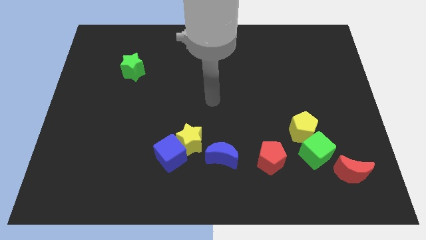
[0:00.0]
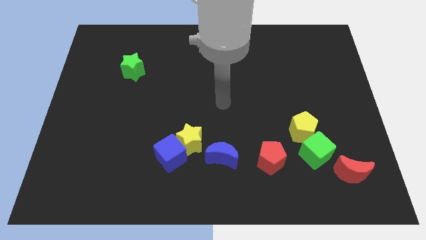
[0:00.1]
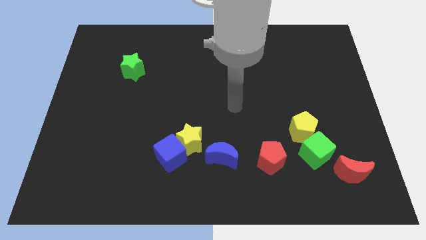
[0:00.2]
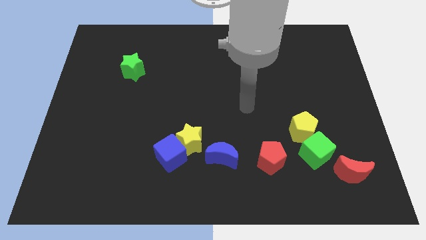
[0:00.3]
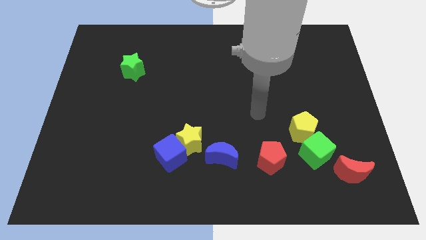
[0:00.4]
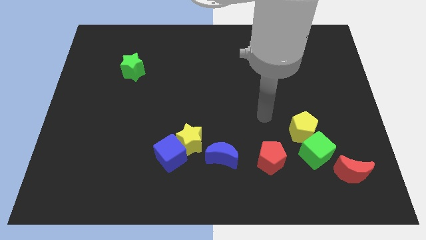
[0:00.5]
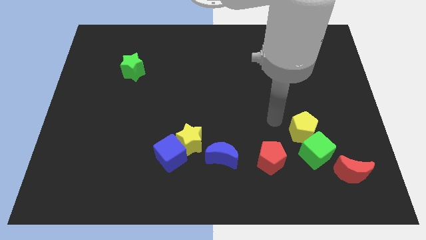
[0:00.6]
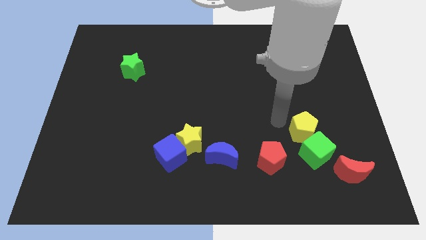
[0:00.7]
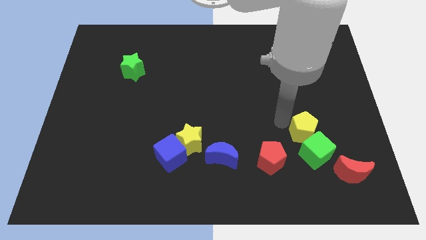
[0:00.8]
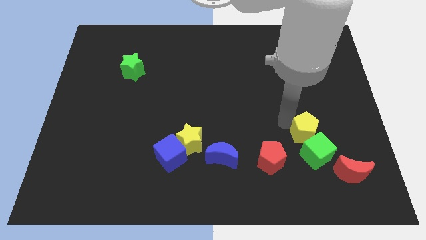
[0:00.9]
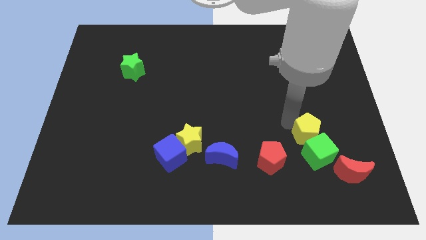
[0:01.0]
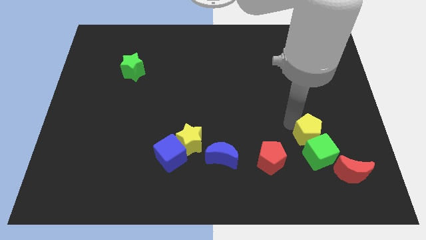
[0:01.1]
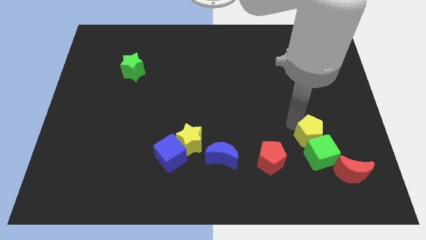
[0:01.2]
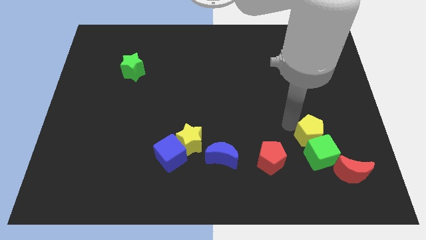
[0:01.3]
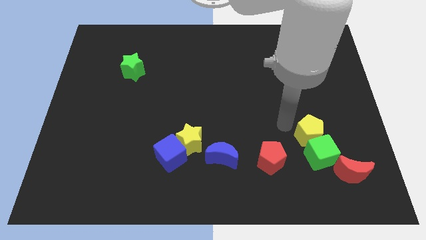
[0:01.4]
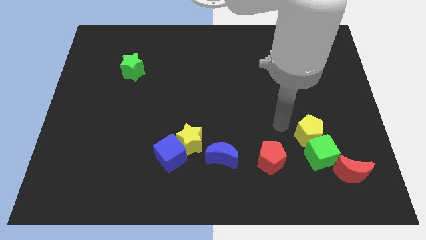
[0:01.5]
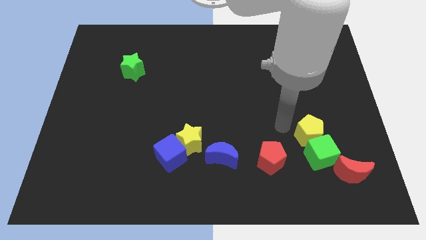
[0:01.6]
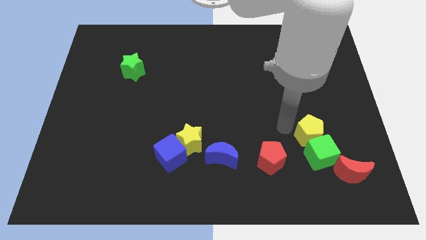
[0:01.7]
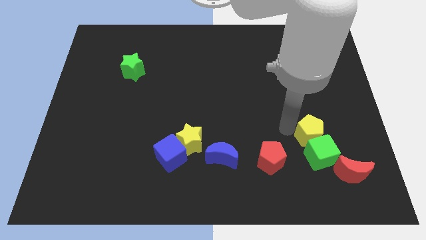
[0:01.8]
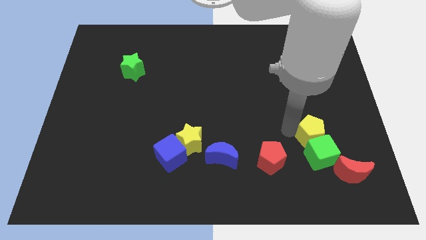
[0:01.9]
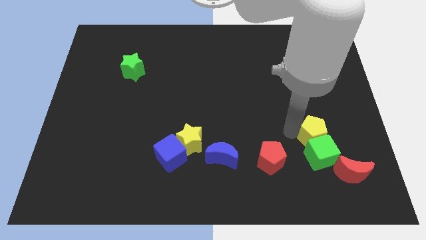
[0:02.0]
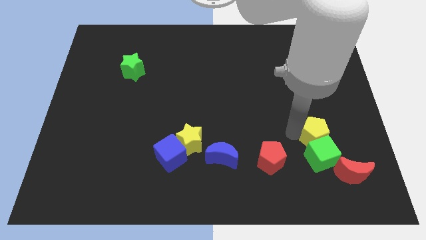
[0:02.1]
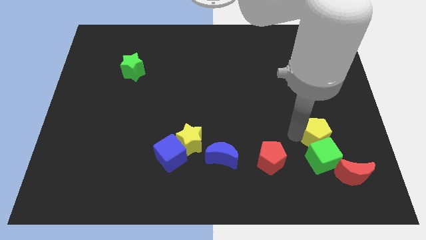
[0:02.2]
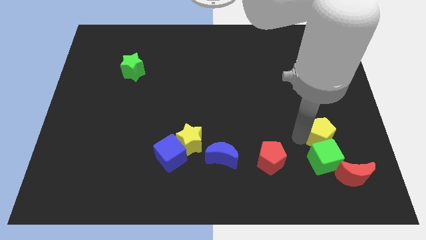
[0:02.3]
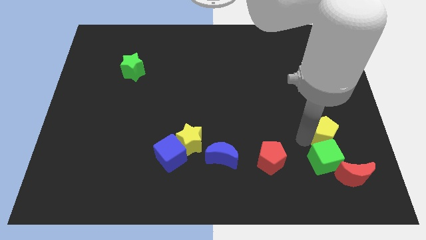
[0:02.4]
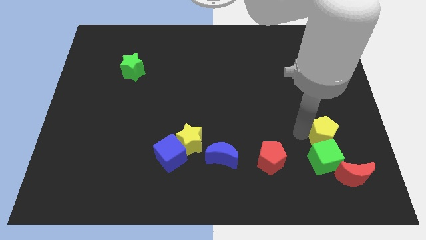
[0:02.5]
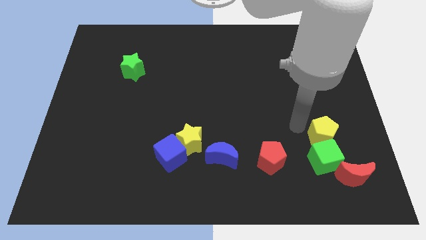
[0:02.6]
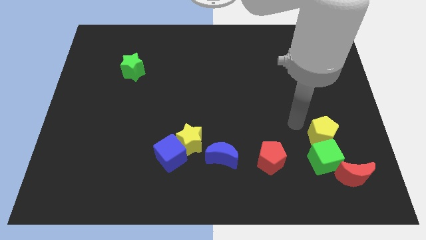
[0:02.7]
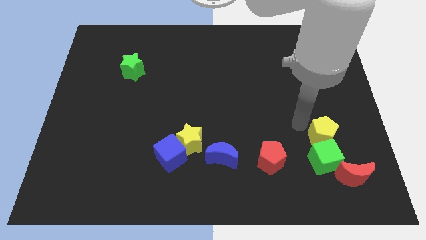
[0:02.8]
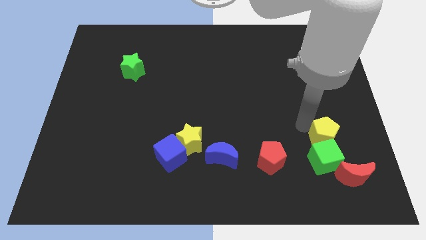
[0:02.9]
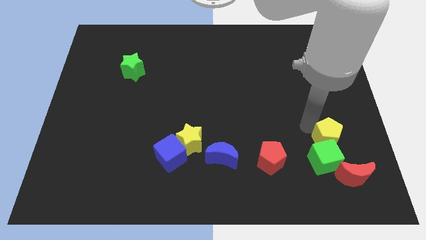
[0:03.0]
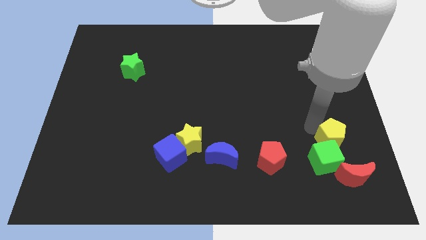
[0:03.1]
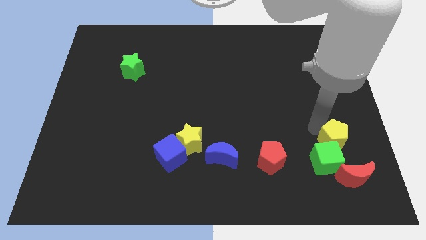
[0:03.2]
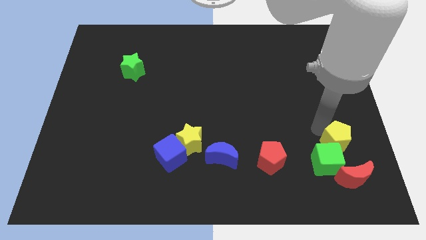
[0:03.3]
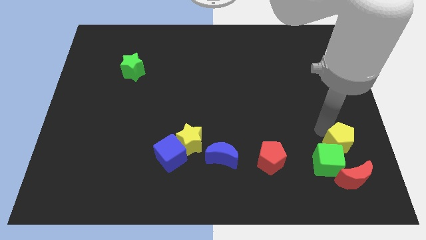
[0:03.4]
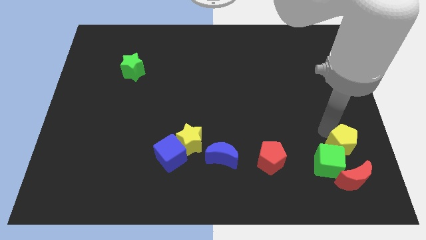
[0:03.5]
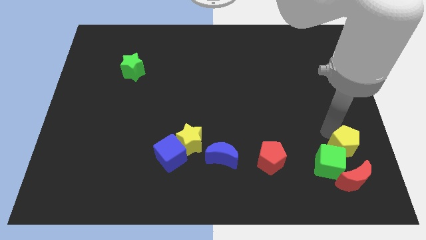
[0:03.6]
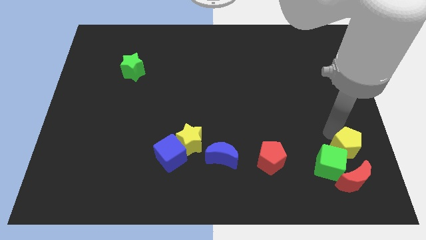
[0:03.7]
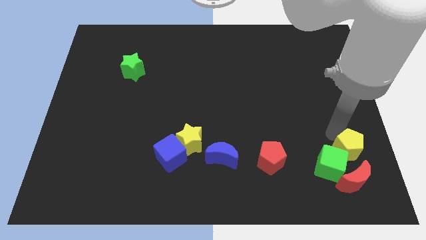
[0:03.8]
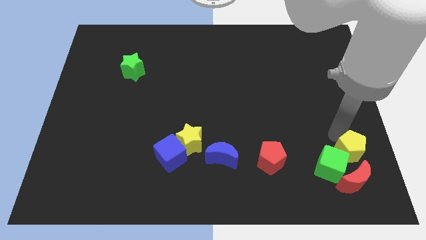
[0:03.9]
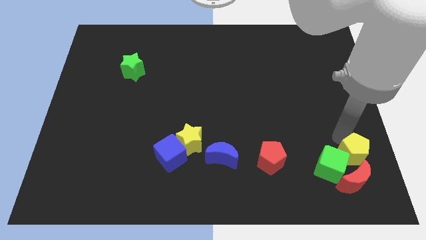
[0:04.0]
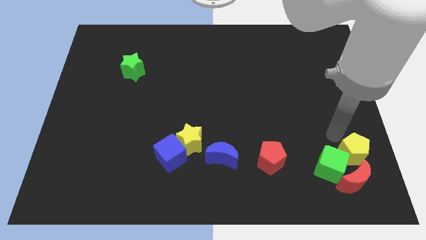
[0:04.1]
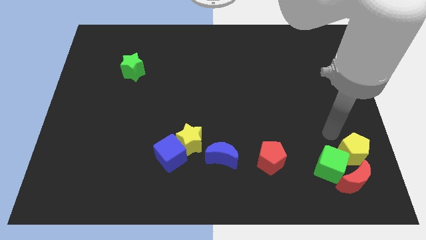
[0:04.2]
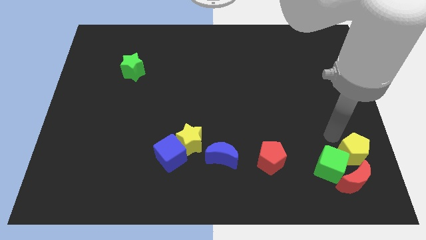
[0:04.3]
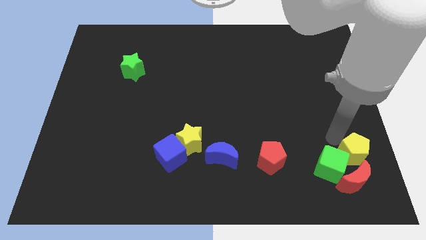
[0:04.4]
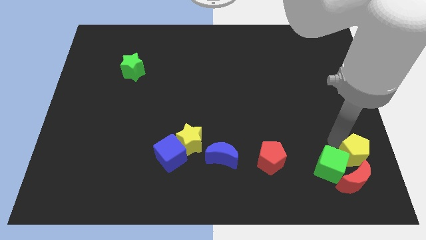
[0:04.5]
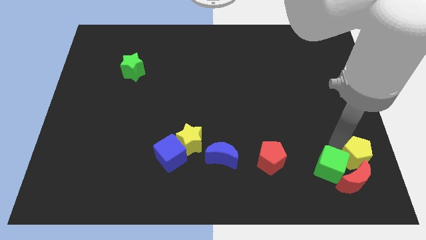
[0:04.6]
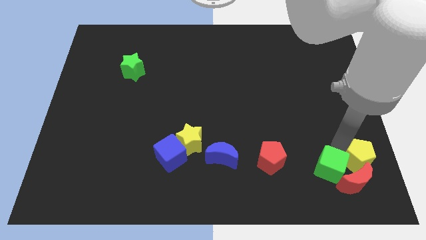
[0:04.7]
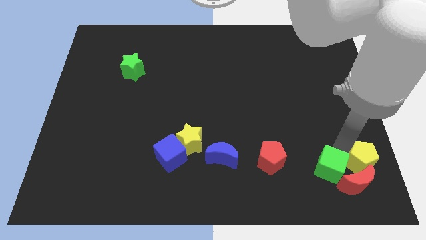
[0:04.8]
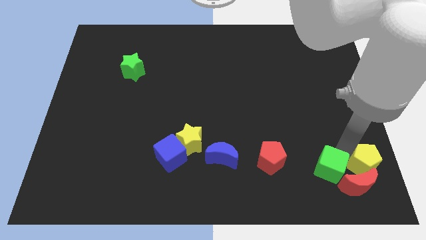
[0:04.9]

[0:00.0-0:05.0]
move the yellow pentagon to the lower right corner

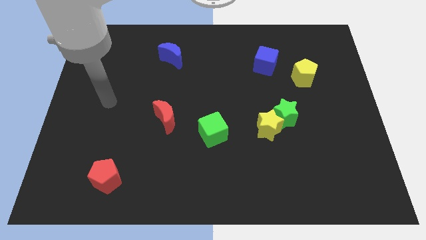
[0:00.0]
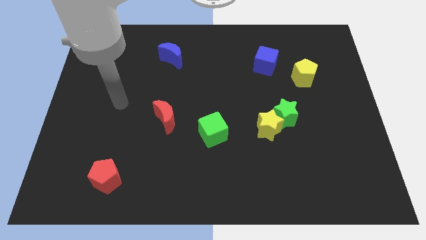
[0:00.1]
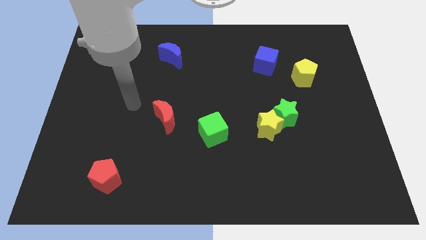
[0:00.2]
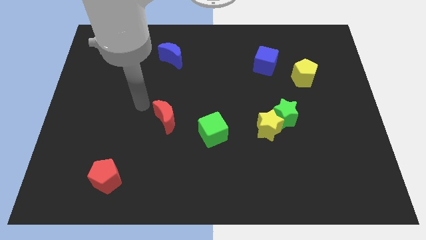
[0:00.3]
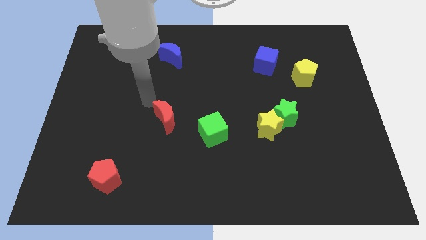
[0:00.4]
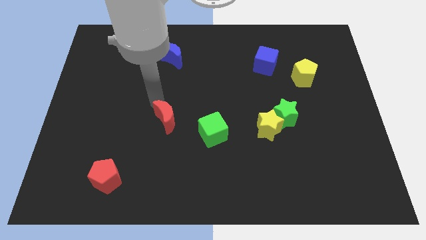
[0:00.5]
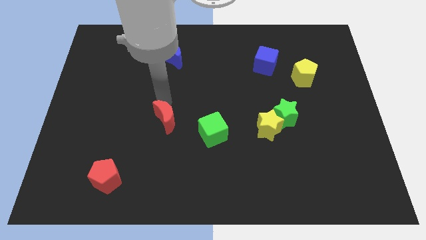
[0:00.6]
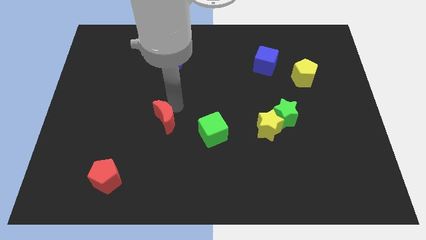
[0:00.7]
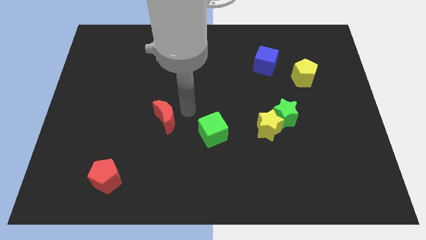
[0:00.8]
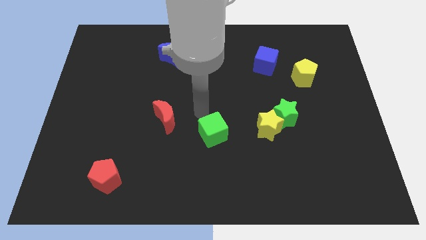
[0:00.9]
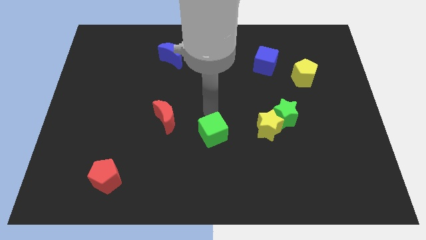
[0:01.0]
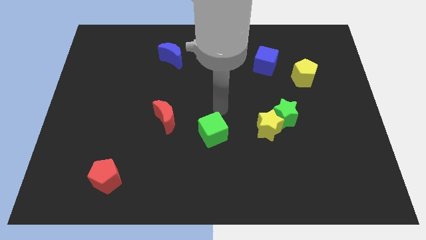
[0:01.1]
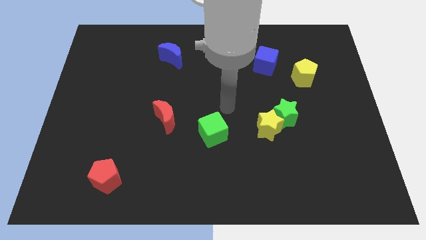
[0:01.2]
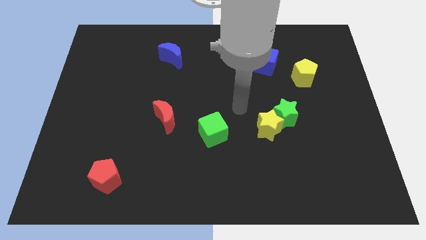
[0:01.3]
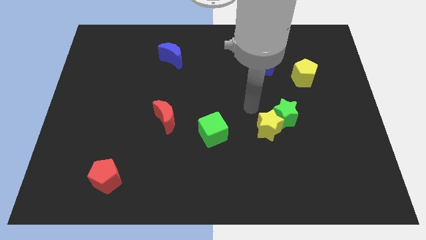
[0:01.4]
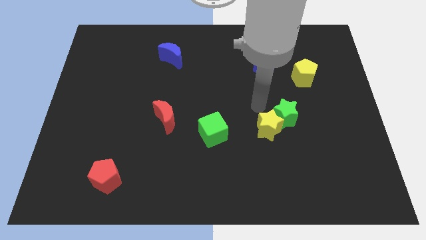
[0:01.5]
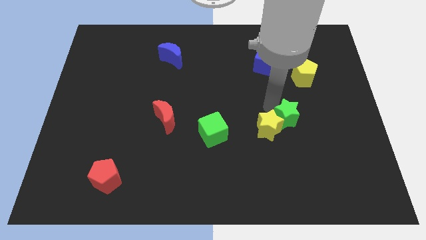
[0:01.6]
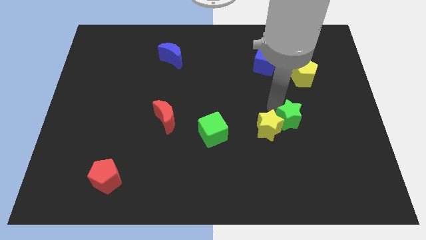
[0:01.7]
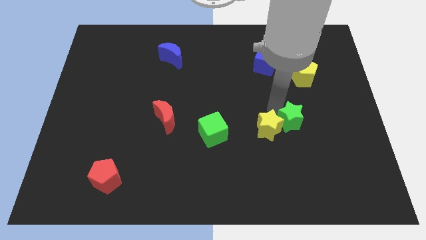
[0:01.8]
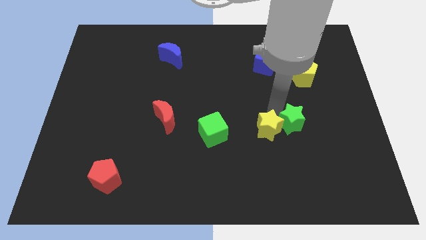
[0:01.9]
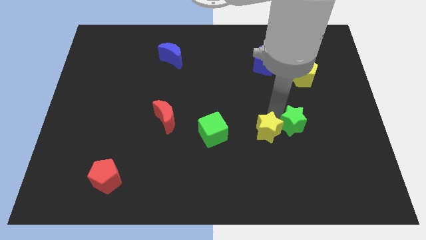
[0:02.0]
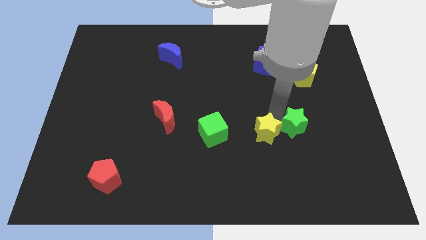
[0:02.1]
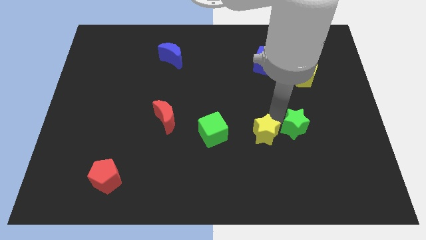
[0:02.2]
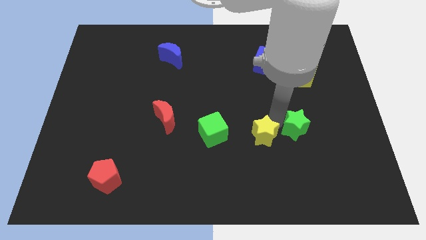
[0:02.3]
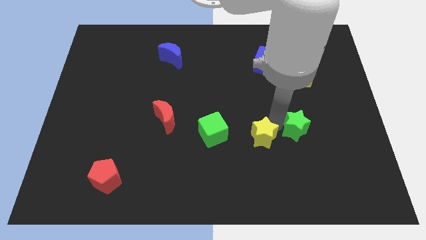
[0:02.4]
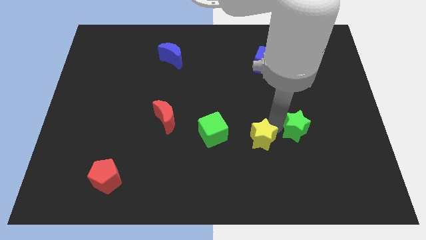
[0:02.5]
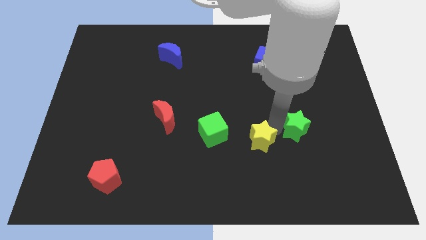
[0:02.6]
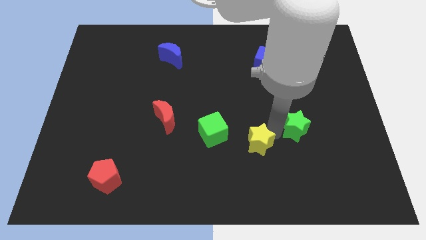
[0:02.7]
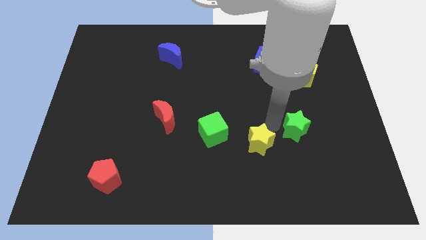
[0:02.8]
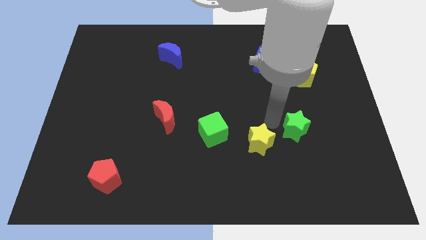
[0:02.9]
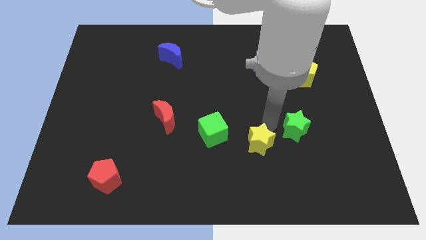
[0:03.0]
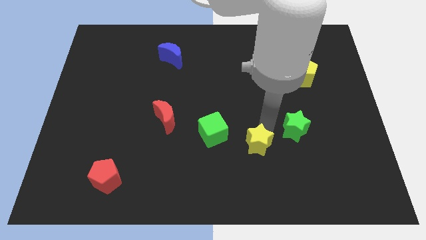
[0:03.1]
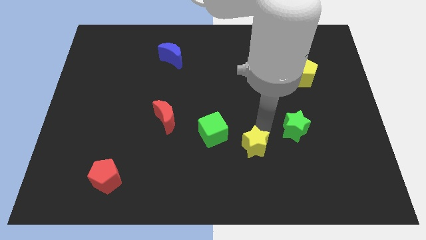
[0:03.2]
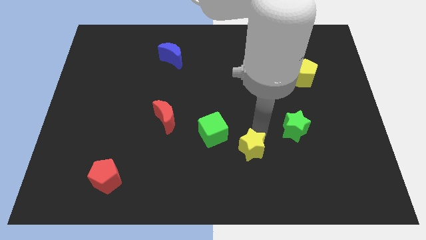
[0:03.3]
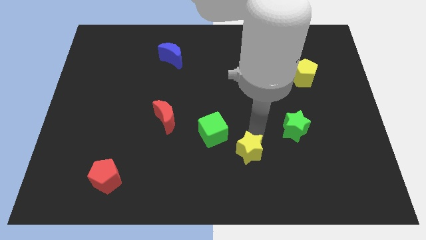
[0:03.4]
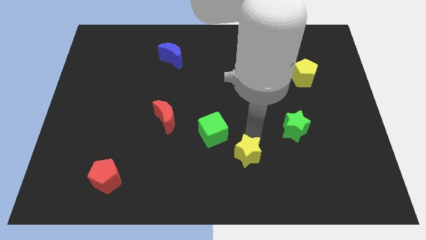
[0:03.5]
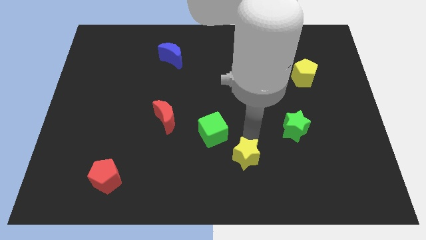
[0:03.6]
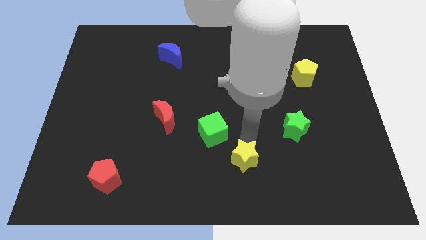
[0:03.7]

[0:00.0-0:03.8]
move the yellow star to the bottom
